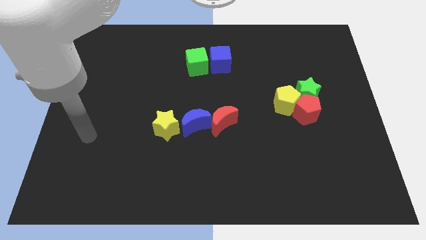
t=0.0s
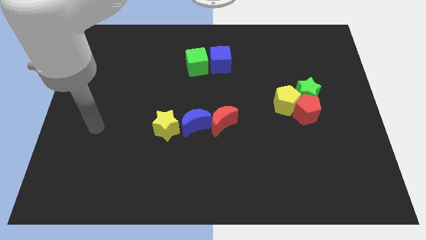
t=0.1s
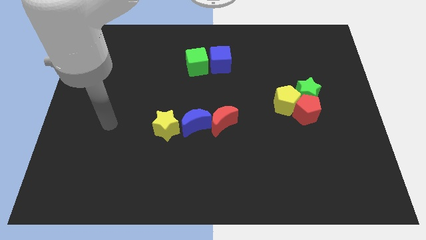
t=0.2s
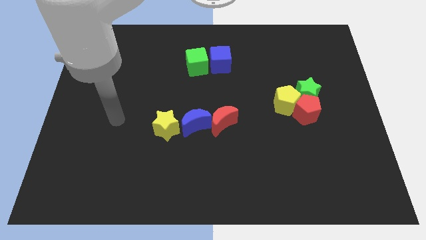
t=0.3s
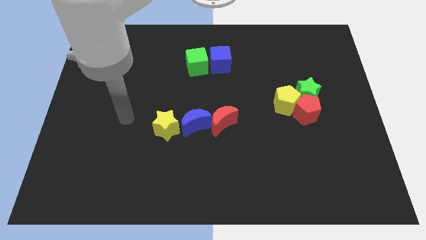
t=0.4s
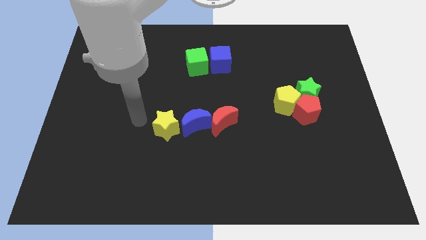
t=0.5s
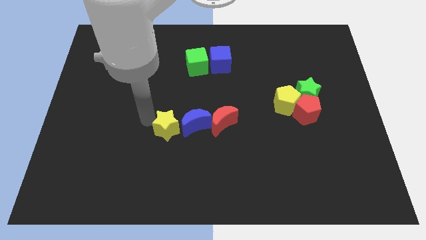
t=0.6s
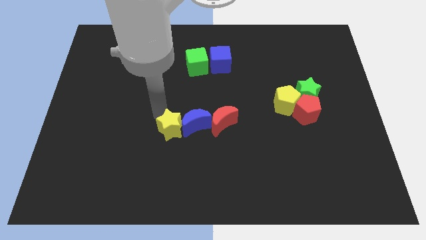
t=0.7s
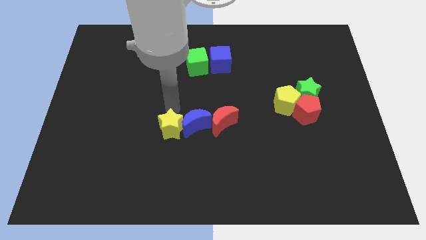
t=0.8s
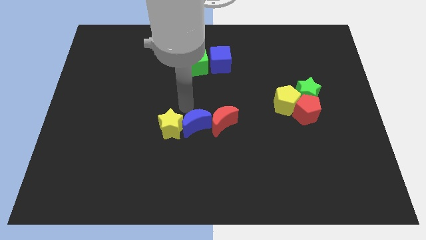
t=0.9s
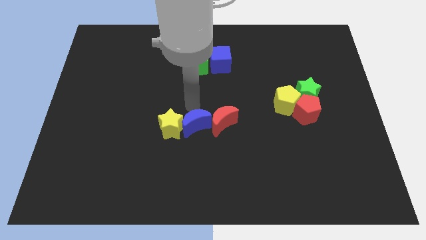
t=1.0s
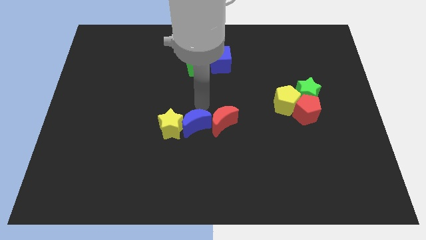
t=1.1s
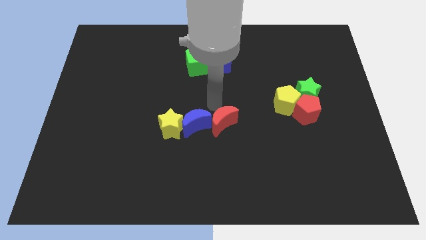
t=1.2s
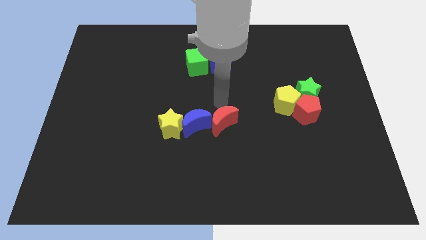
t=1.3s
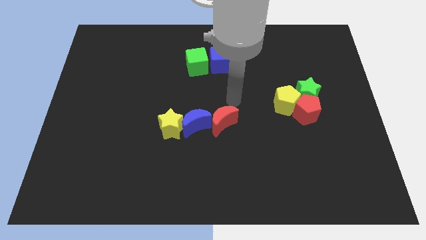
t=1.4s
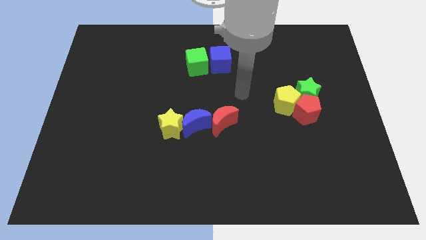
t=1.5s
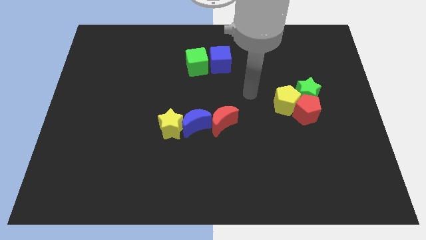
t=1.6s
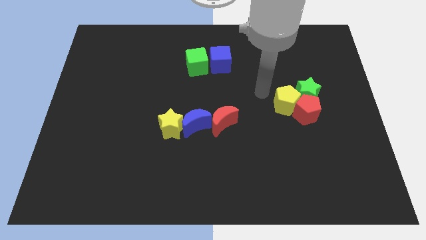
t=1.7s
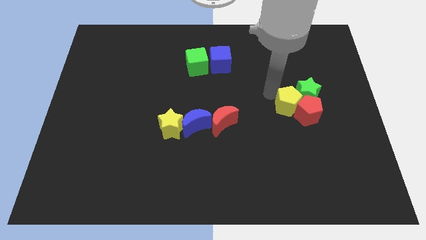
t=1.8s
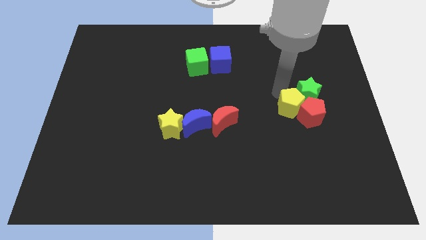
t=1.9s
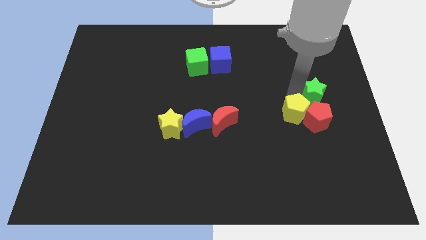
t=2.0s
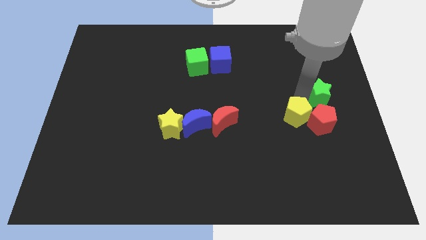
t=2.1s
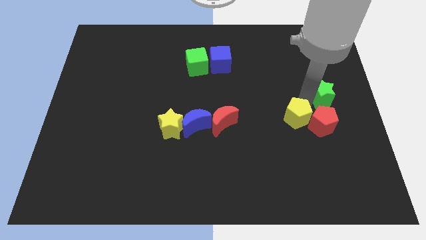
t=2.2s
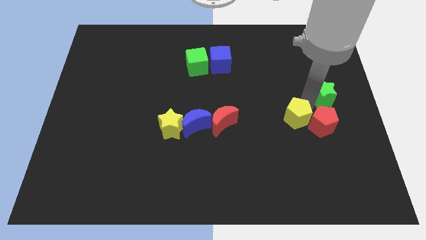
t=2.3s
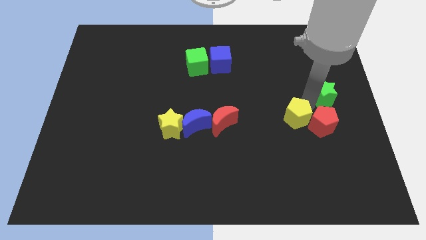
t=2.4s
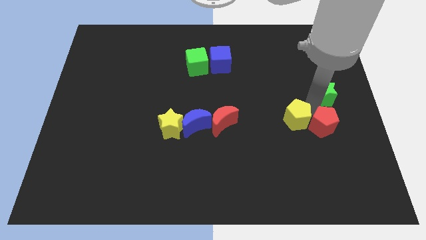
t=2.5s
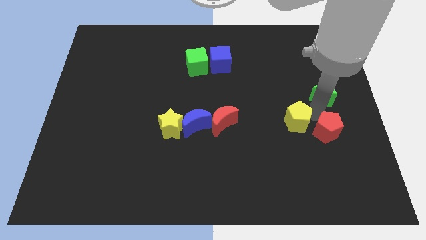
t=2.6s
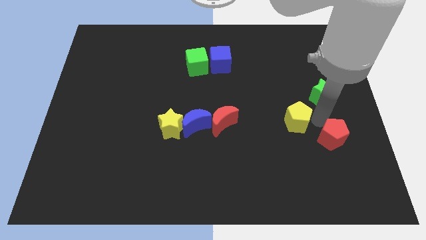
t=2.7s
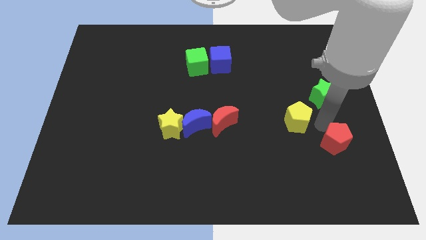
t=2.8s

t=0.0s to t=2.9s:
pull the red pentagon apart from the yellow pentagon and green star

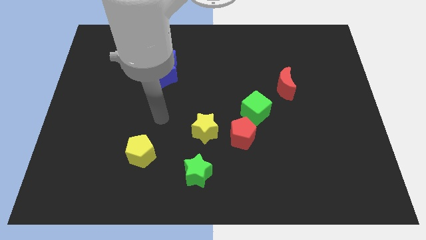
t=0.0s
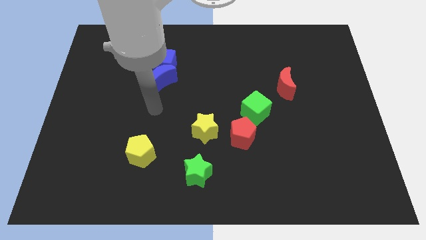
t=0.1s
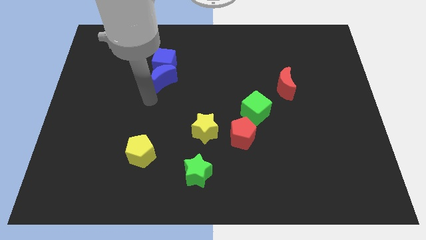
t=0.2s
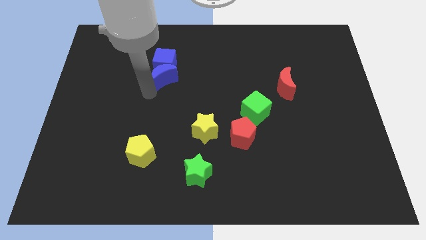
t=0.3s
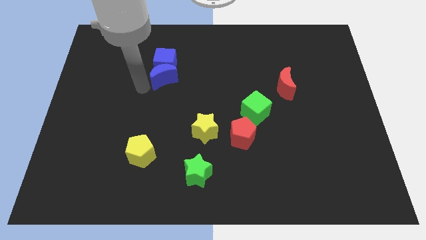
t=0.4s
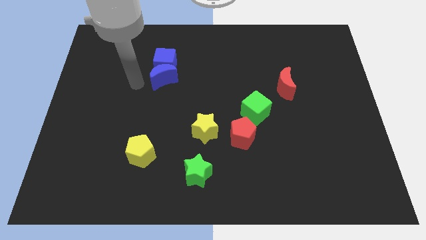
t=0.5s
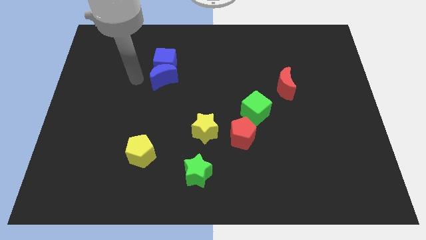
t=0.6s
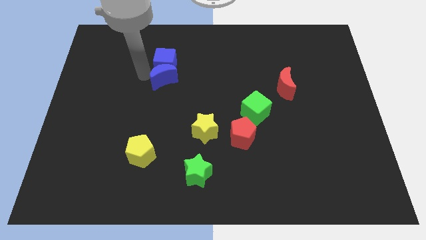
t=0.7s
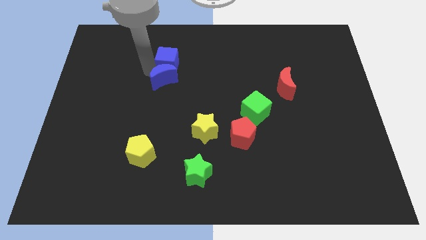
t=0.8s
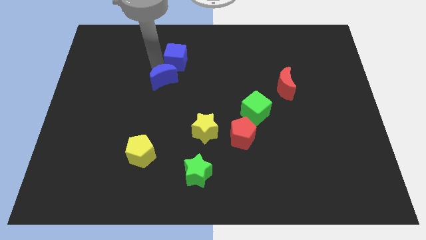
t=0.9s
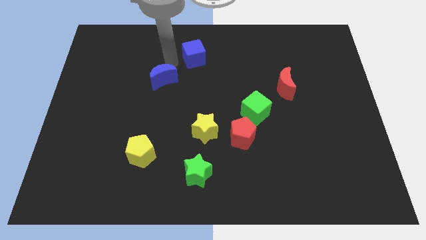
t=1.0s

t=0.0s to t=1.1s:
move the blue moon away from the blue cube

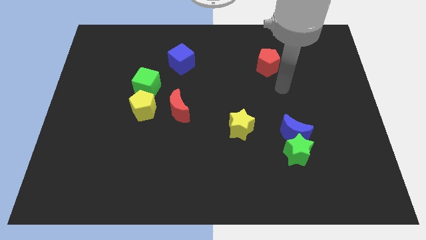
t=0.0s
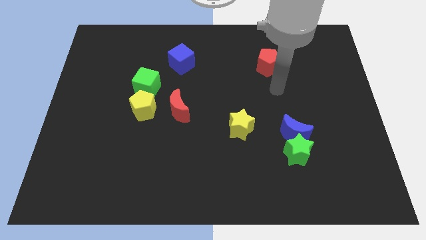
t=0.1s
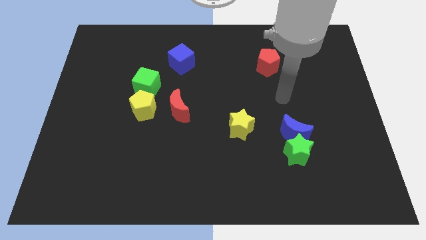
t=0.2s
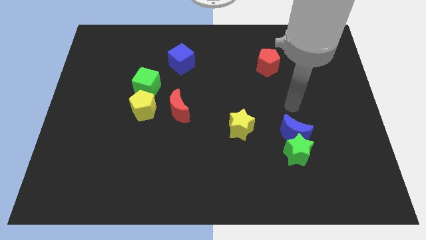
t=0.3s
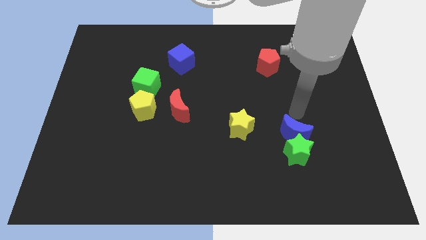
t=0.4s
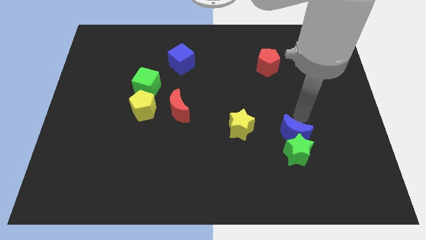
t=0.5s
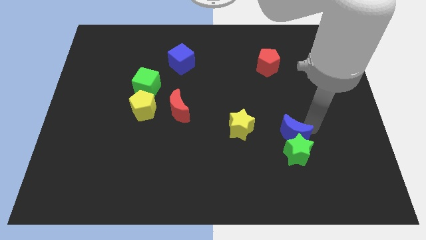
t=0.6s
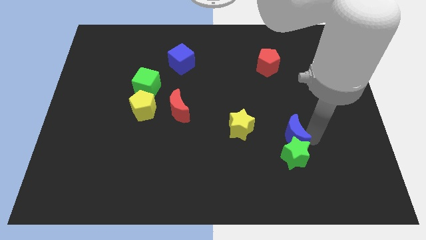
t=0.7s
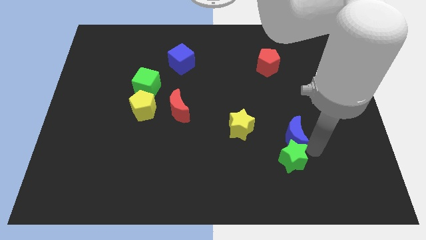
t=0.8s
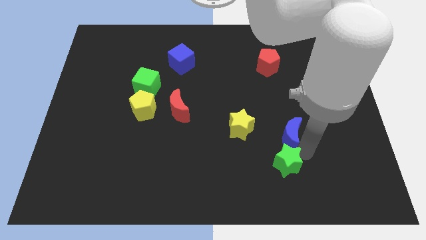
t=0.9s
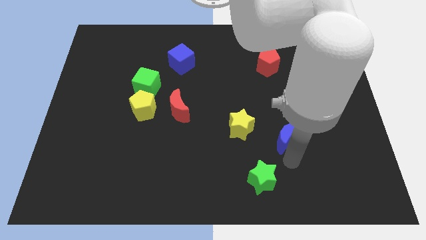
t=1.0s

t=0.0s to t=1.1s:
separate the blue moon from the green star

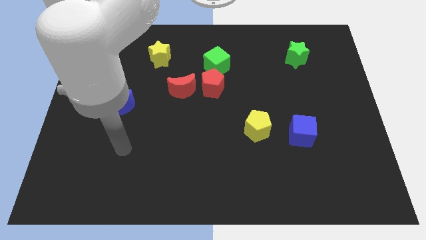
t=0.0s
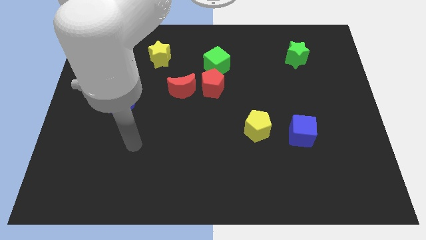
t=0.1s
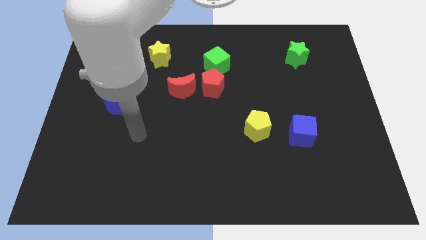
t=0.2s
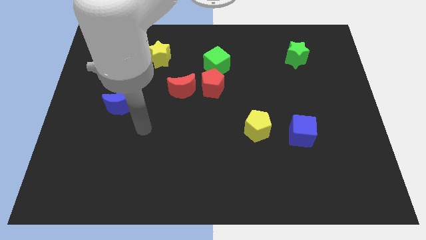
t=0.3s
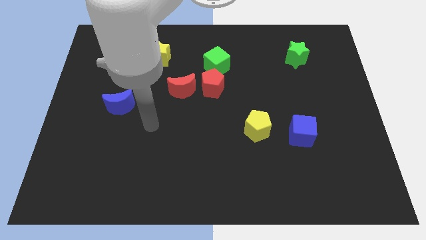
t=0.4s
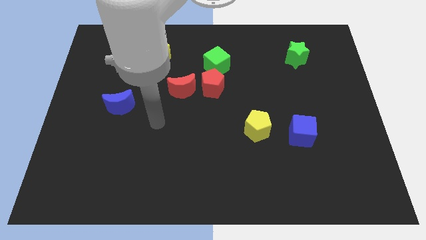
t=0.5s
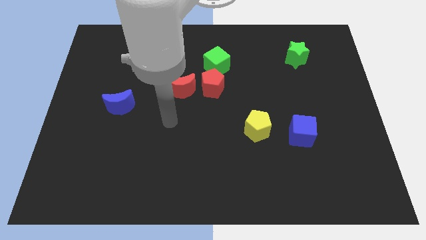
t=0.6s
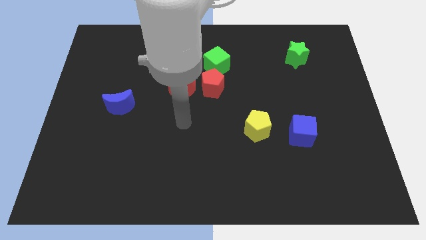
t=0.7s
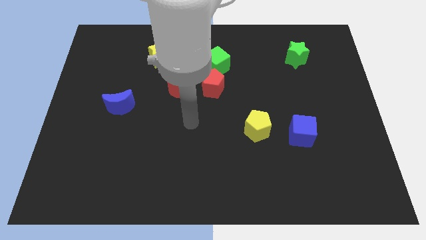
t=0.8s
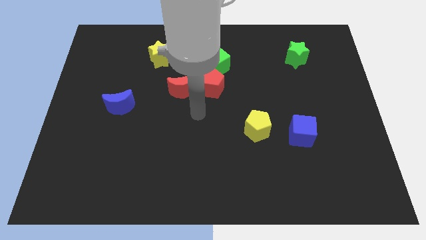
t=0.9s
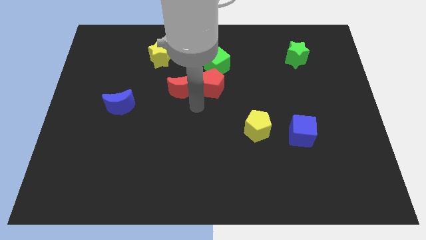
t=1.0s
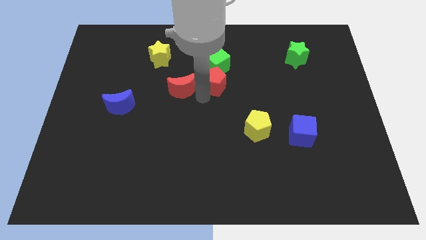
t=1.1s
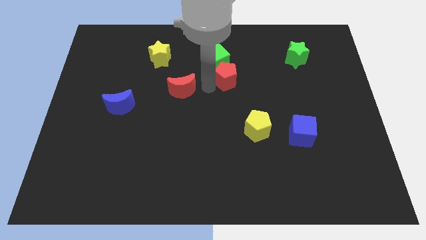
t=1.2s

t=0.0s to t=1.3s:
move the red moon away from the red pentagon

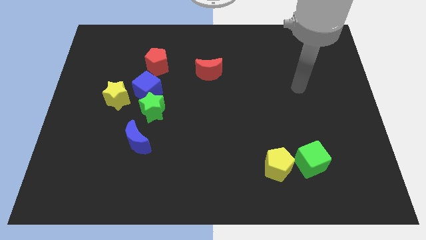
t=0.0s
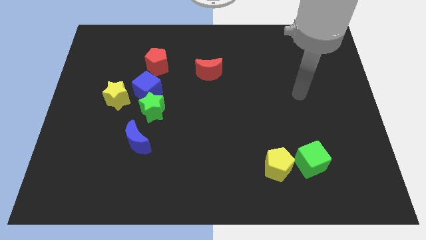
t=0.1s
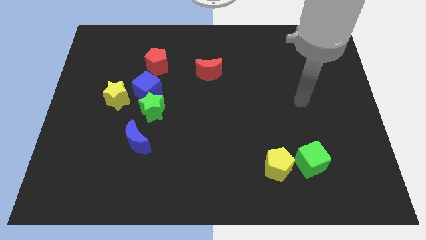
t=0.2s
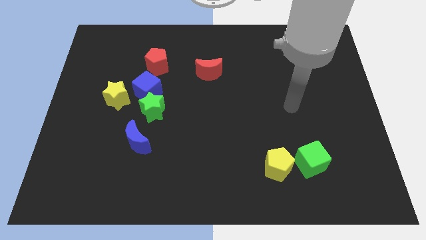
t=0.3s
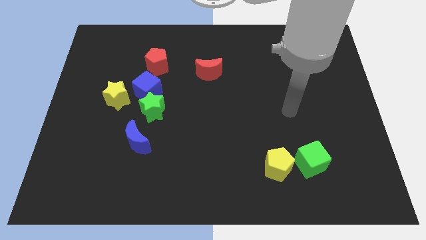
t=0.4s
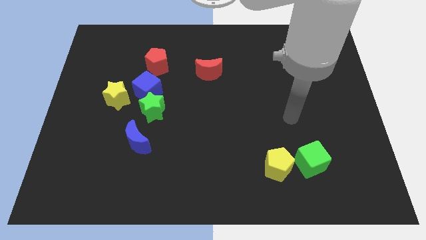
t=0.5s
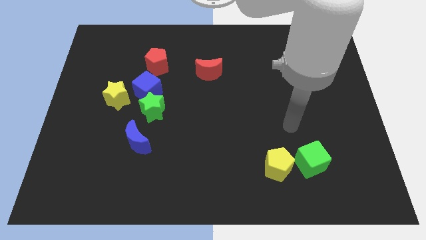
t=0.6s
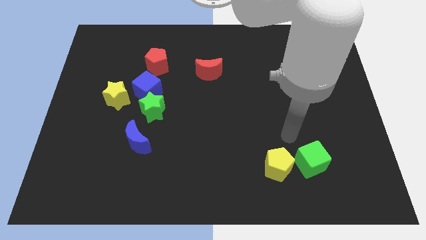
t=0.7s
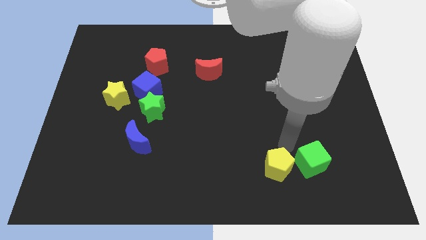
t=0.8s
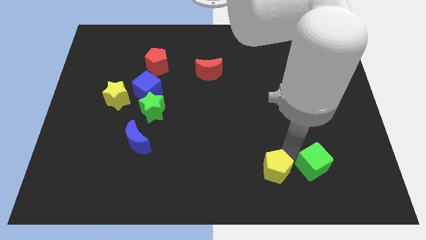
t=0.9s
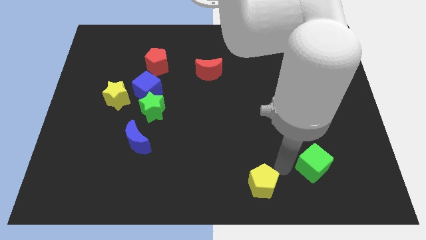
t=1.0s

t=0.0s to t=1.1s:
pull the green cube apart from the yellow pentagon

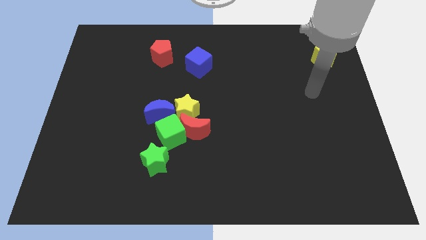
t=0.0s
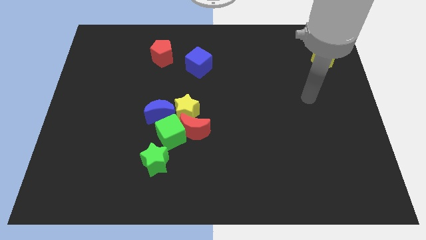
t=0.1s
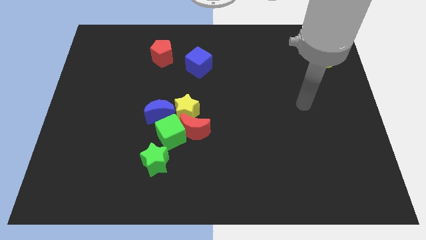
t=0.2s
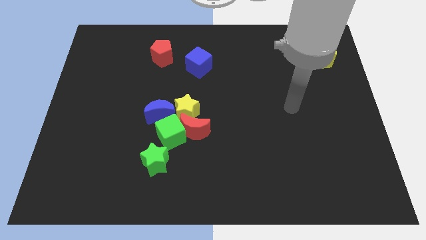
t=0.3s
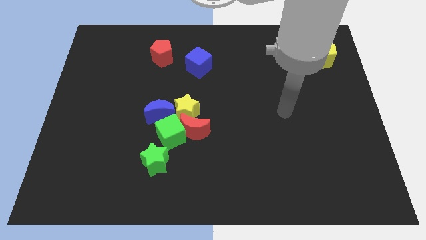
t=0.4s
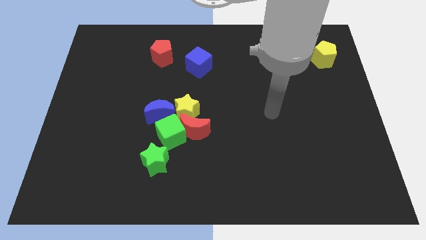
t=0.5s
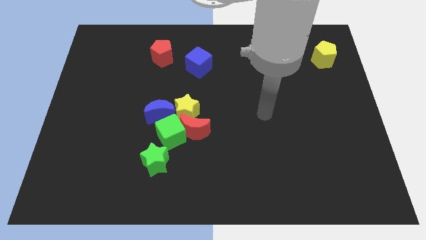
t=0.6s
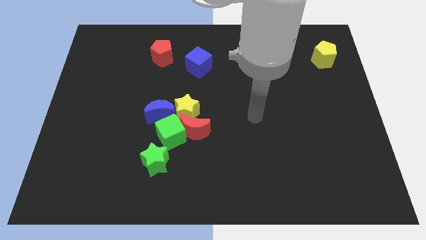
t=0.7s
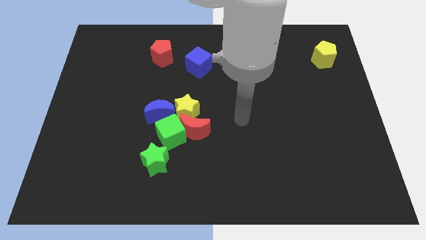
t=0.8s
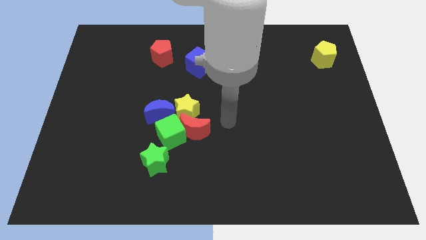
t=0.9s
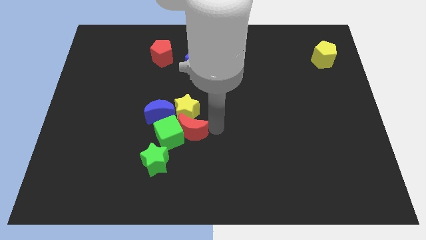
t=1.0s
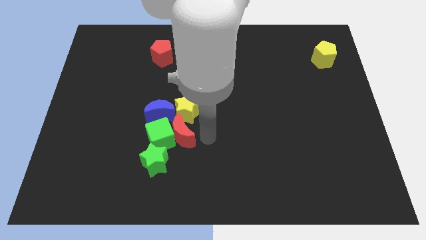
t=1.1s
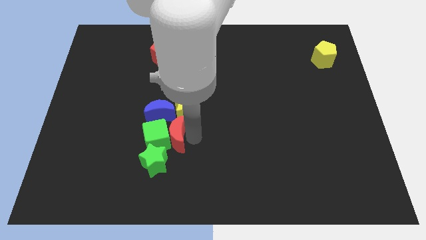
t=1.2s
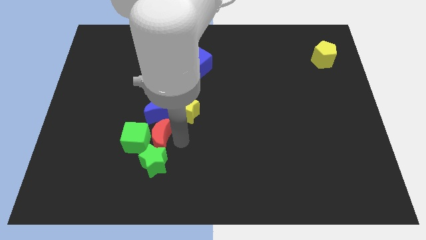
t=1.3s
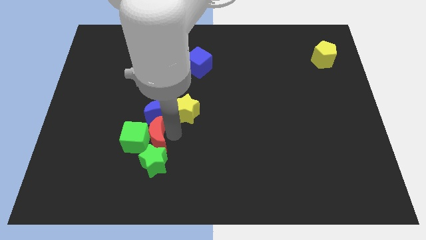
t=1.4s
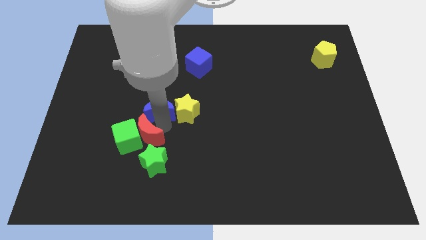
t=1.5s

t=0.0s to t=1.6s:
separate the yellow star from the group of blocks

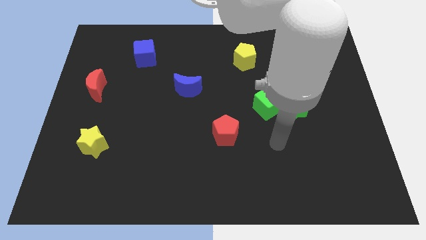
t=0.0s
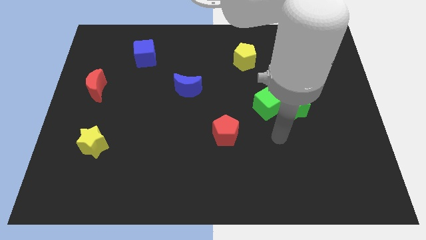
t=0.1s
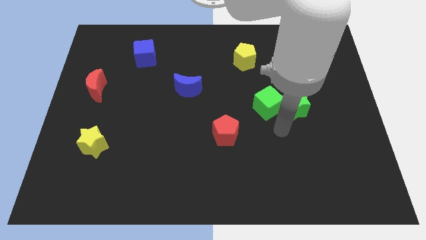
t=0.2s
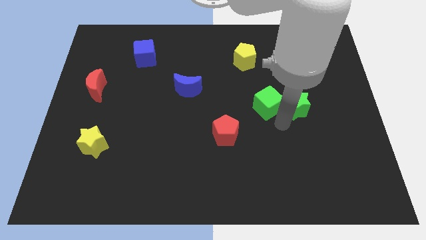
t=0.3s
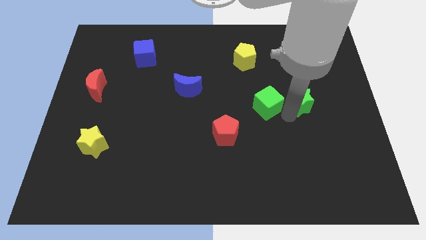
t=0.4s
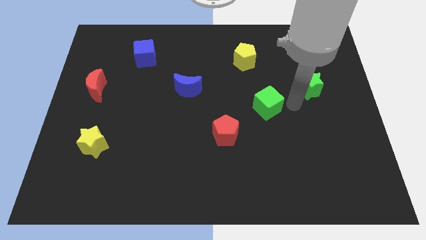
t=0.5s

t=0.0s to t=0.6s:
move the green cube away from the green star
